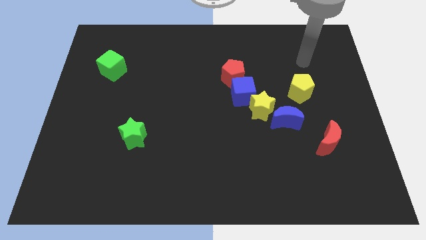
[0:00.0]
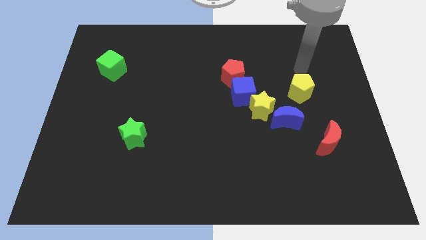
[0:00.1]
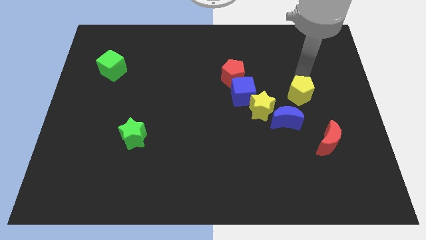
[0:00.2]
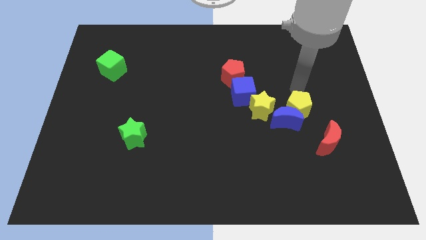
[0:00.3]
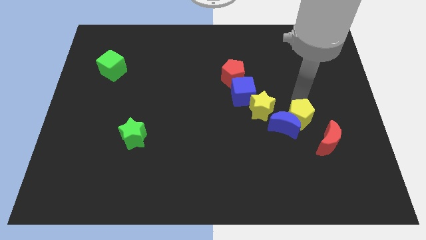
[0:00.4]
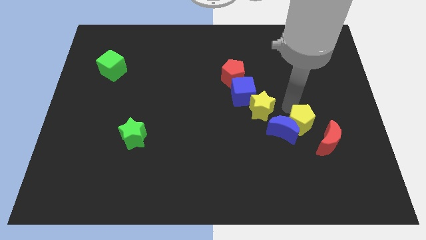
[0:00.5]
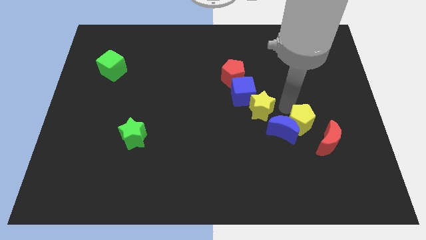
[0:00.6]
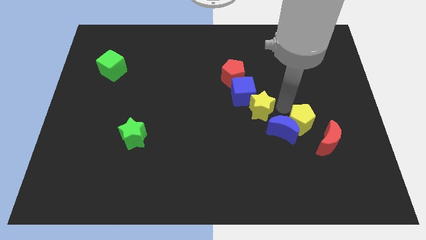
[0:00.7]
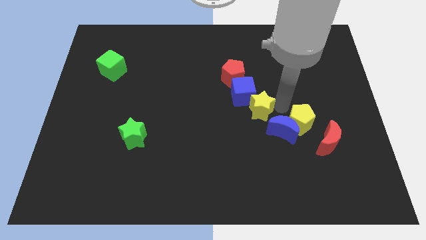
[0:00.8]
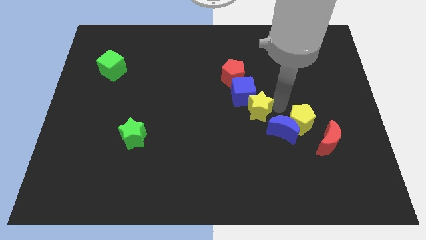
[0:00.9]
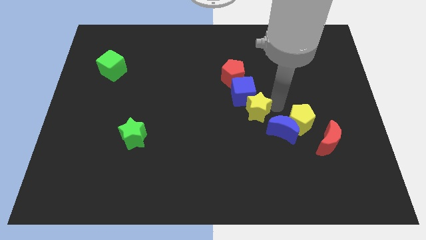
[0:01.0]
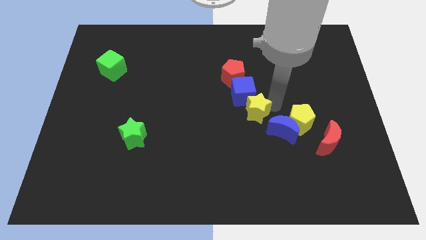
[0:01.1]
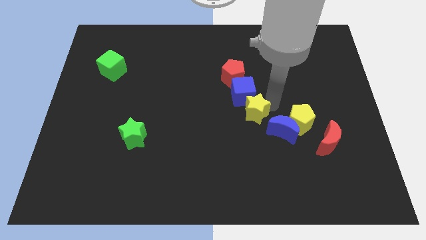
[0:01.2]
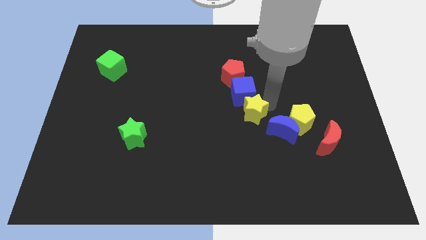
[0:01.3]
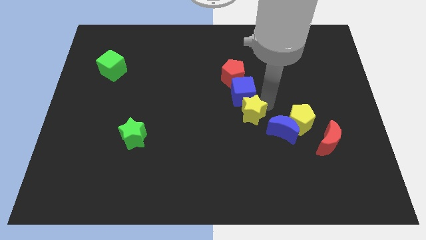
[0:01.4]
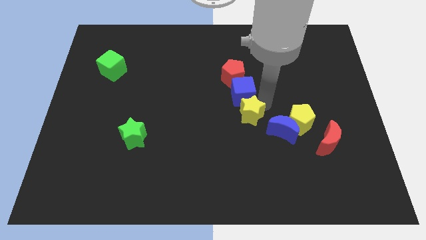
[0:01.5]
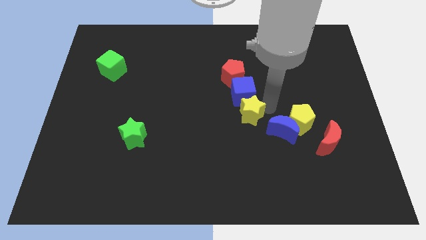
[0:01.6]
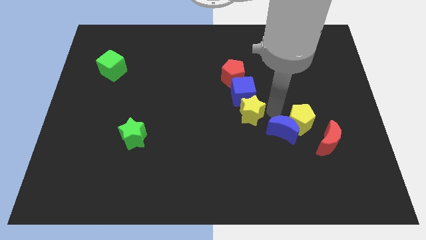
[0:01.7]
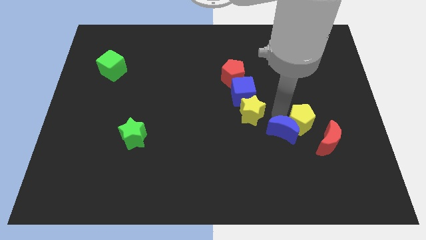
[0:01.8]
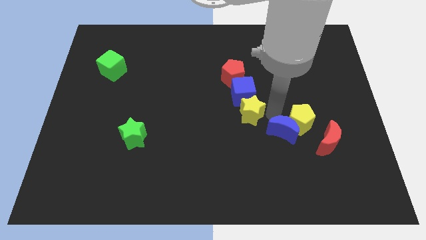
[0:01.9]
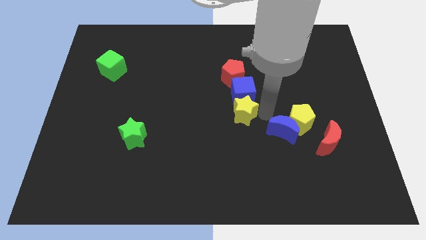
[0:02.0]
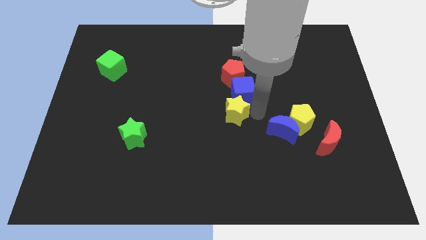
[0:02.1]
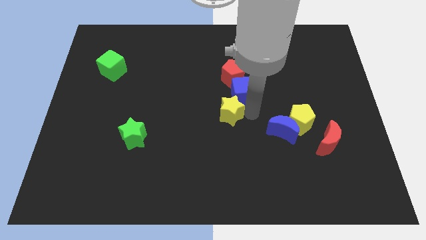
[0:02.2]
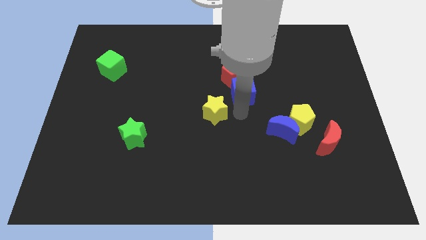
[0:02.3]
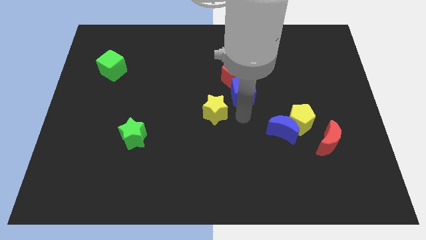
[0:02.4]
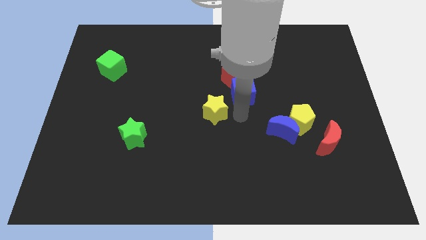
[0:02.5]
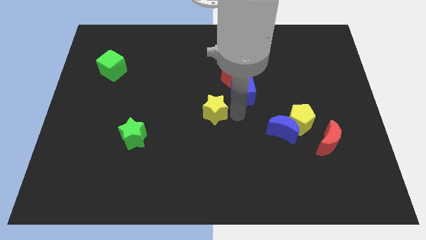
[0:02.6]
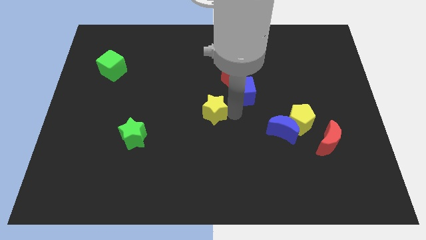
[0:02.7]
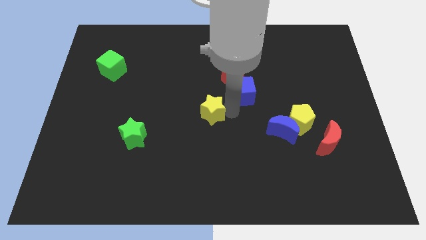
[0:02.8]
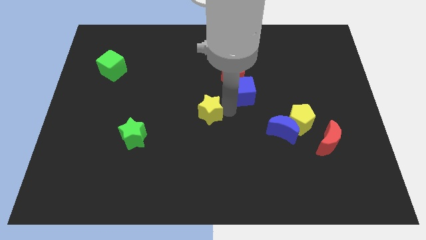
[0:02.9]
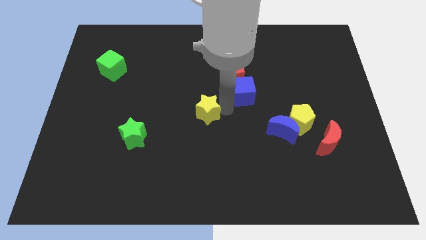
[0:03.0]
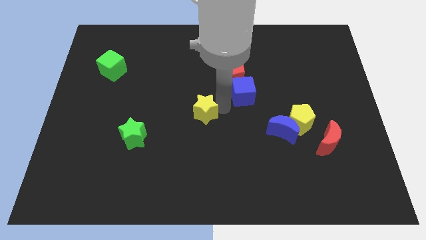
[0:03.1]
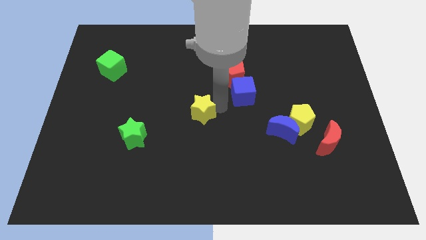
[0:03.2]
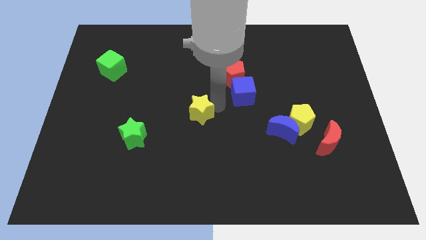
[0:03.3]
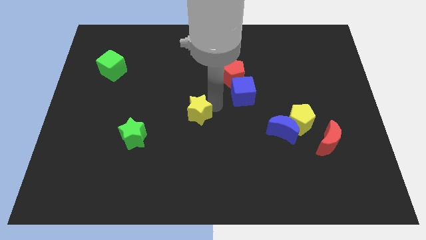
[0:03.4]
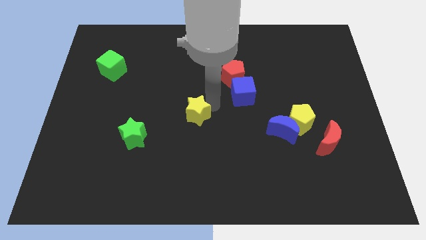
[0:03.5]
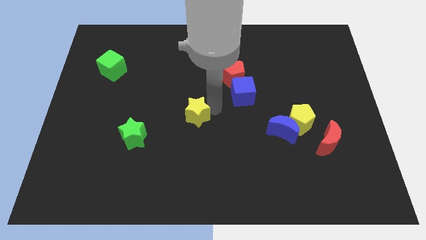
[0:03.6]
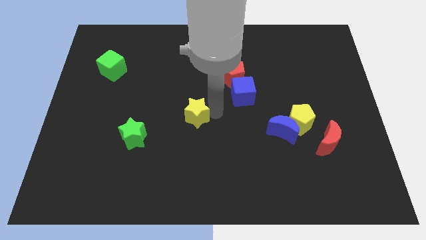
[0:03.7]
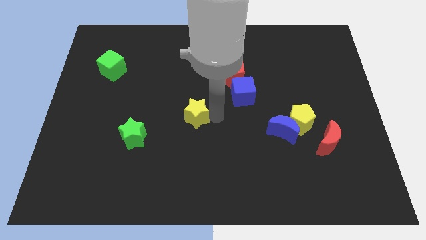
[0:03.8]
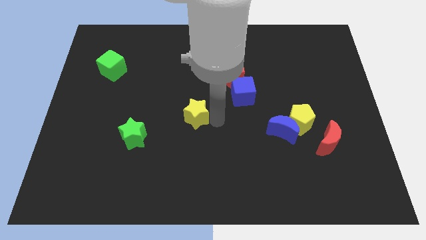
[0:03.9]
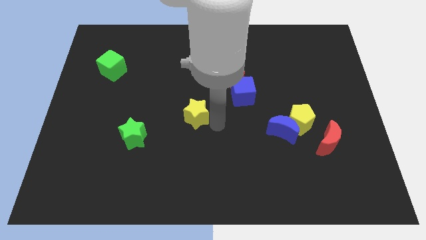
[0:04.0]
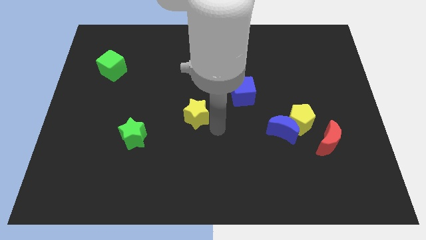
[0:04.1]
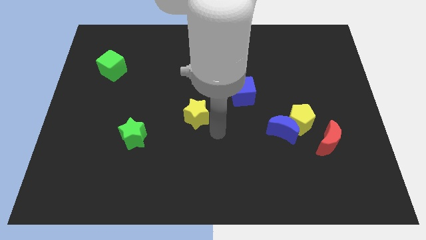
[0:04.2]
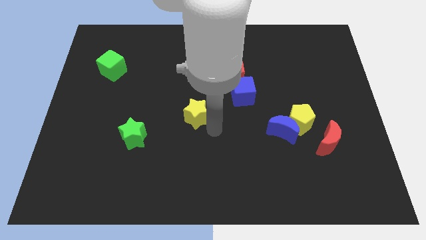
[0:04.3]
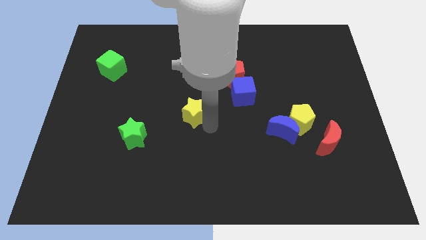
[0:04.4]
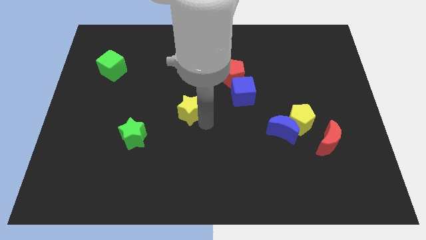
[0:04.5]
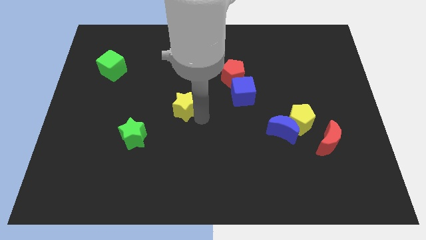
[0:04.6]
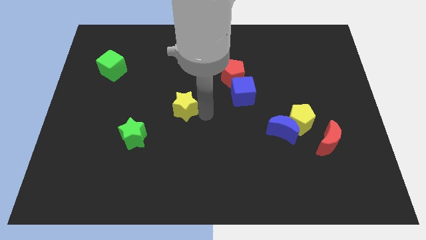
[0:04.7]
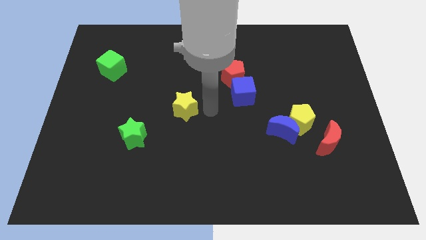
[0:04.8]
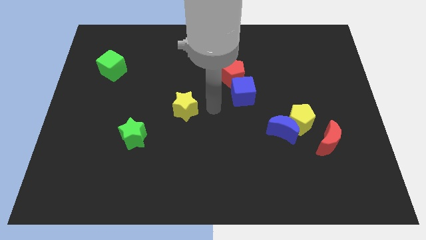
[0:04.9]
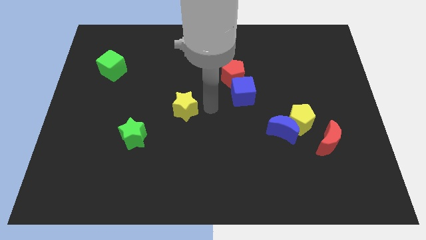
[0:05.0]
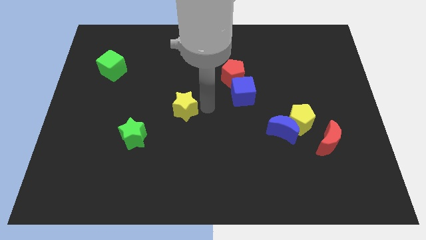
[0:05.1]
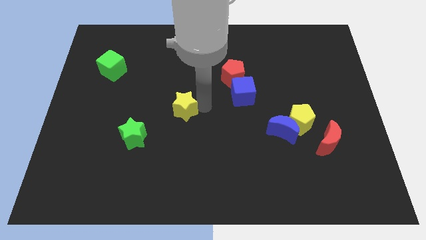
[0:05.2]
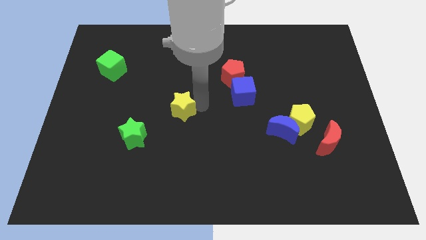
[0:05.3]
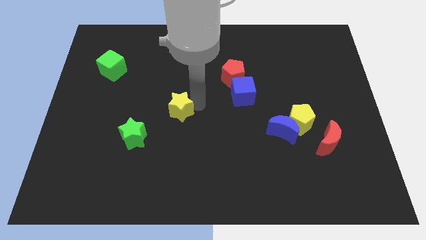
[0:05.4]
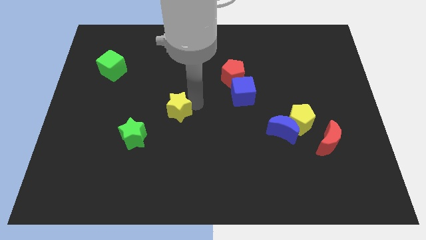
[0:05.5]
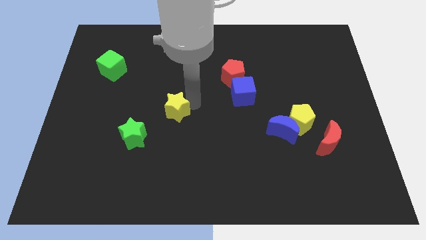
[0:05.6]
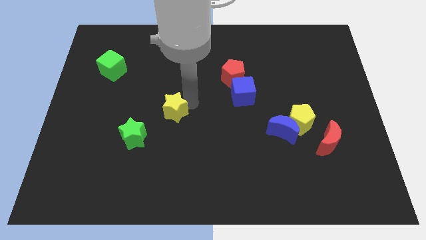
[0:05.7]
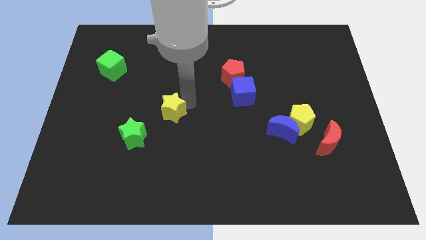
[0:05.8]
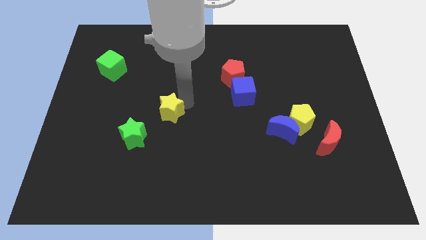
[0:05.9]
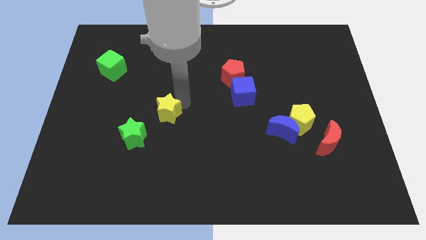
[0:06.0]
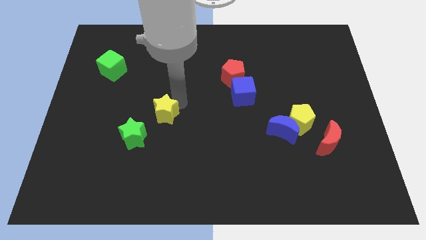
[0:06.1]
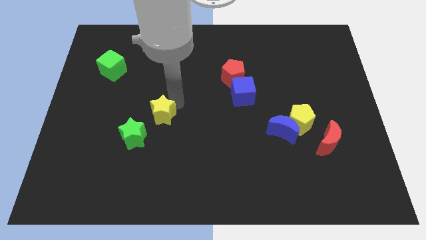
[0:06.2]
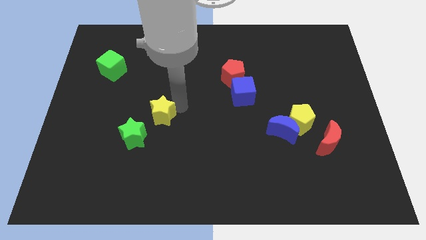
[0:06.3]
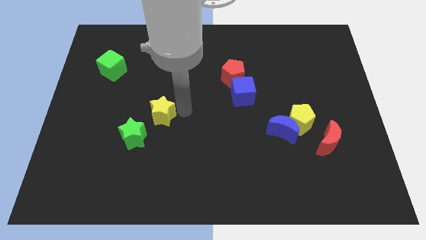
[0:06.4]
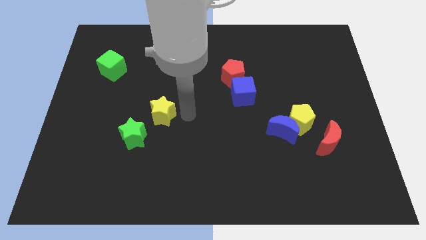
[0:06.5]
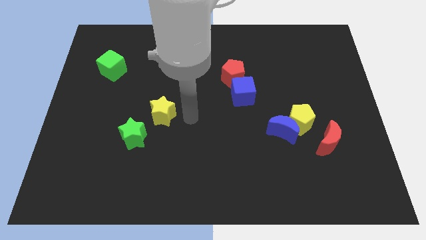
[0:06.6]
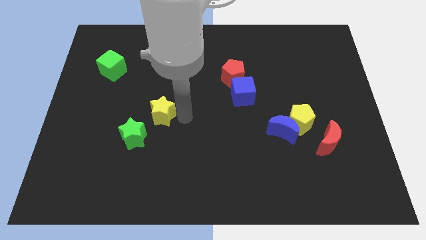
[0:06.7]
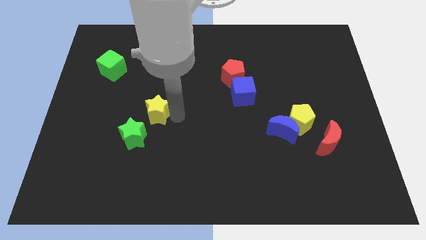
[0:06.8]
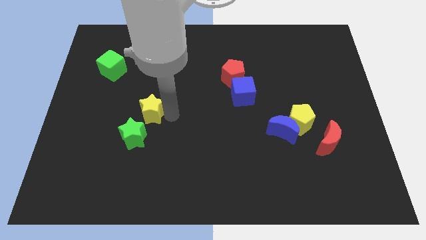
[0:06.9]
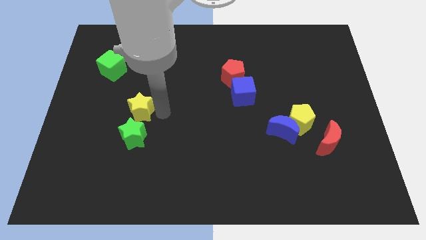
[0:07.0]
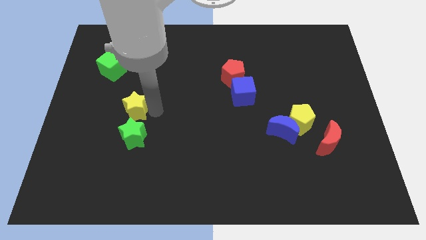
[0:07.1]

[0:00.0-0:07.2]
slide the yellow star to the top left of the green star

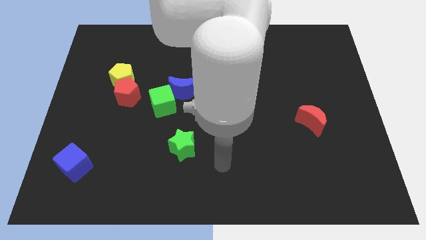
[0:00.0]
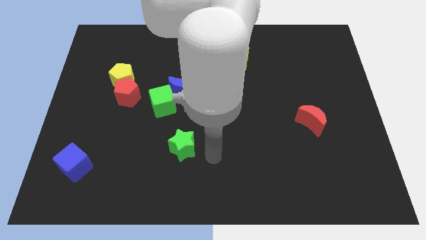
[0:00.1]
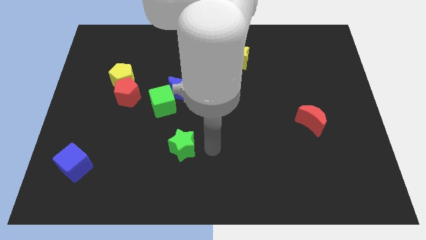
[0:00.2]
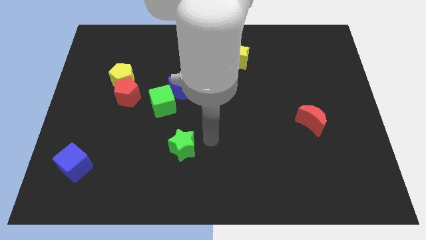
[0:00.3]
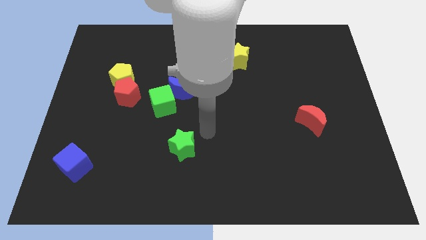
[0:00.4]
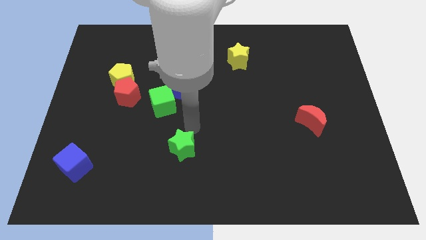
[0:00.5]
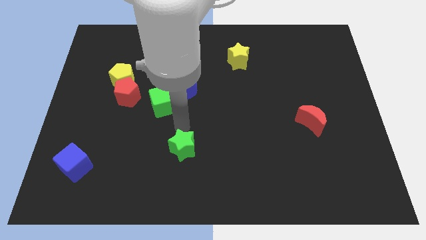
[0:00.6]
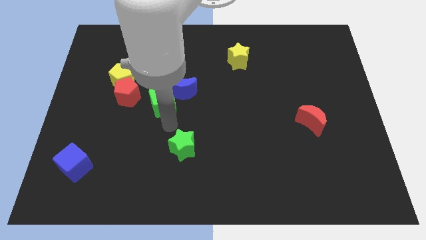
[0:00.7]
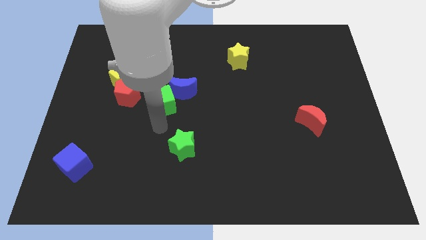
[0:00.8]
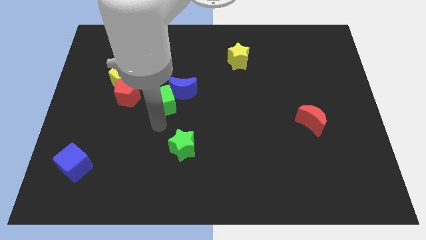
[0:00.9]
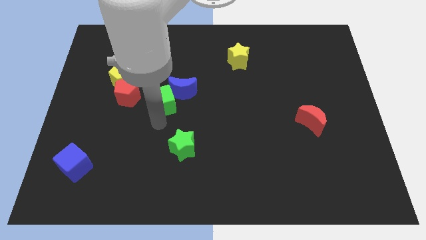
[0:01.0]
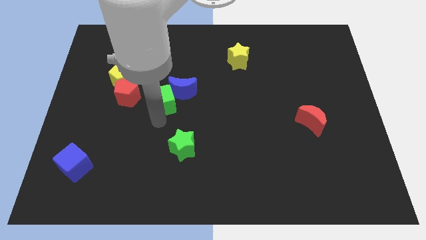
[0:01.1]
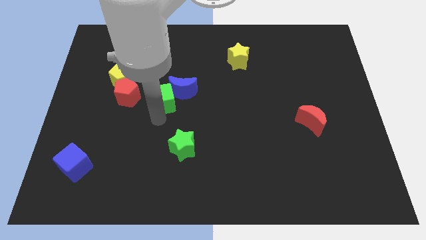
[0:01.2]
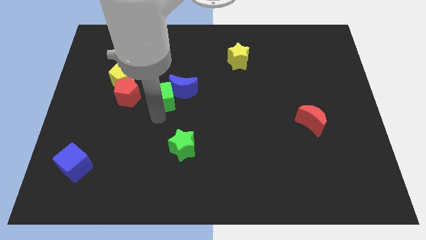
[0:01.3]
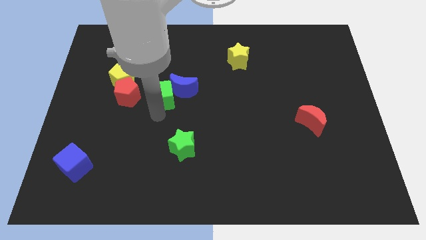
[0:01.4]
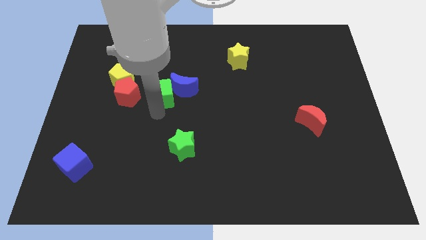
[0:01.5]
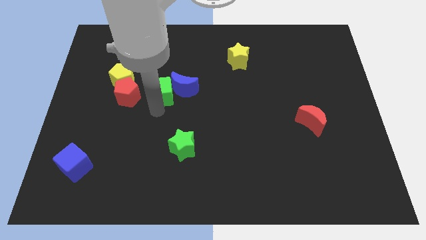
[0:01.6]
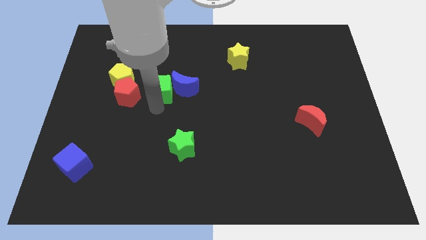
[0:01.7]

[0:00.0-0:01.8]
push the green cube to the top left of the blue moon
